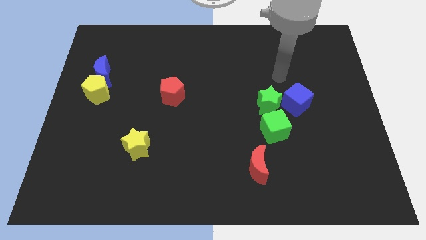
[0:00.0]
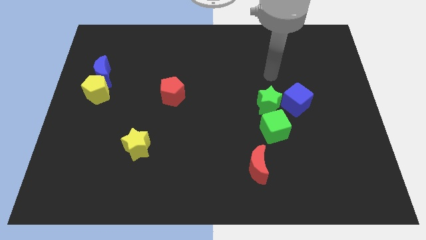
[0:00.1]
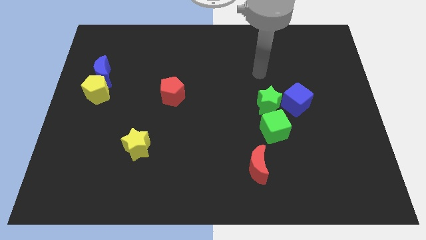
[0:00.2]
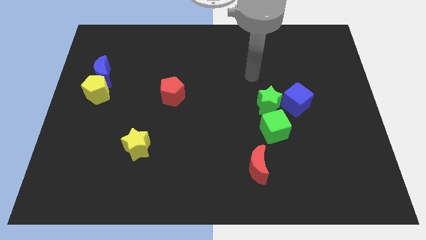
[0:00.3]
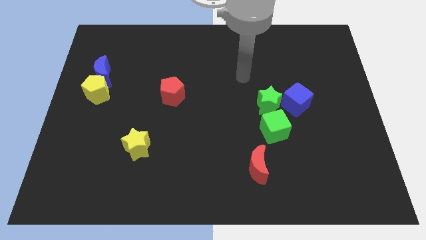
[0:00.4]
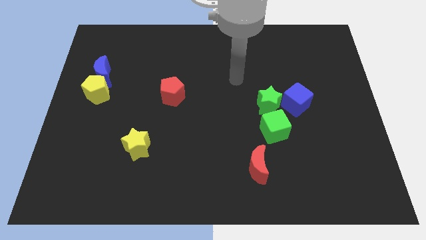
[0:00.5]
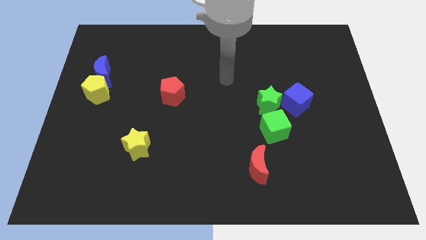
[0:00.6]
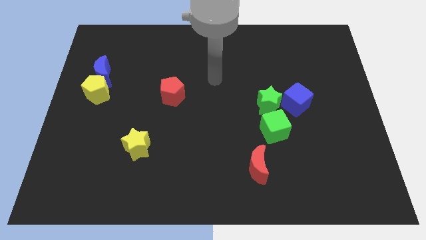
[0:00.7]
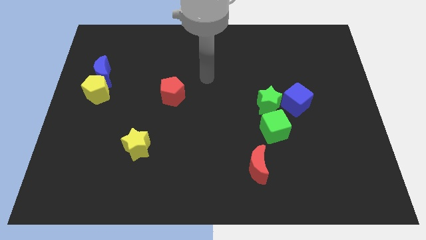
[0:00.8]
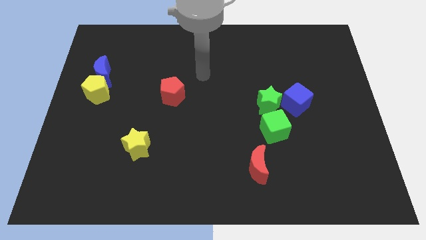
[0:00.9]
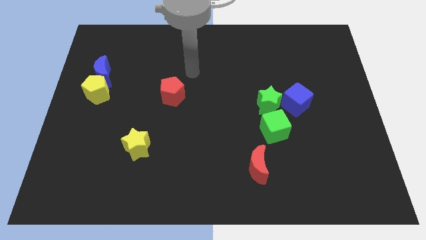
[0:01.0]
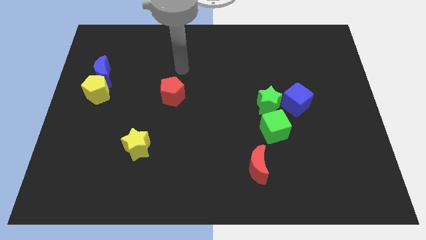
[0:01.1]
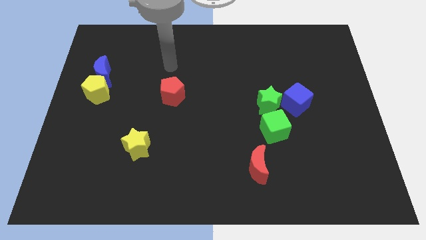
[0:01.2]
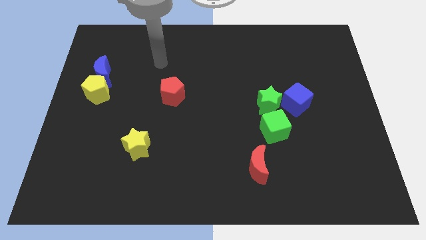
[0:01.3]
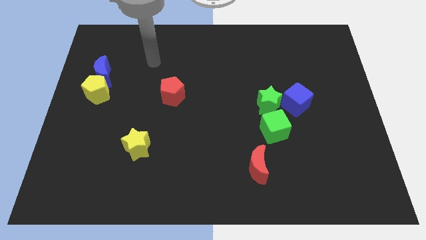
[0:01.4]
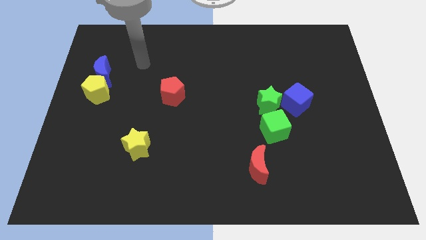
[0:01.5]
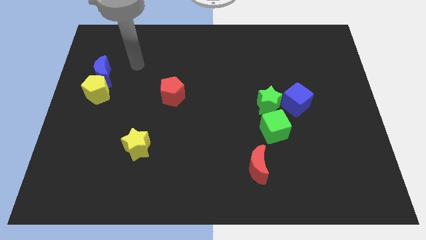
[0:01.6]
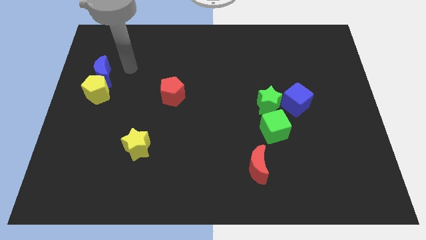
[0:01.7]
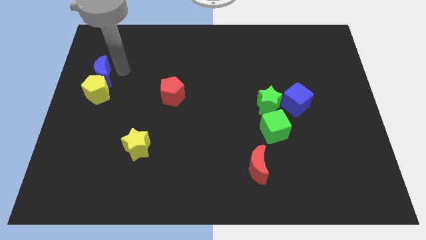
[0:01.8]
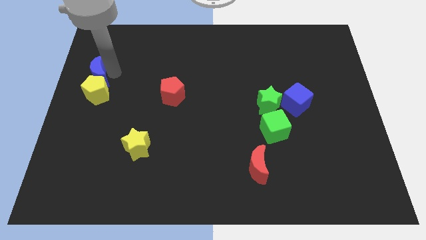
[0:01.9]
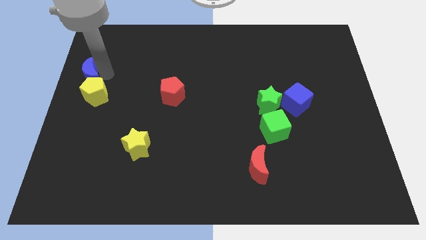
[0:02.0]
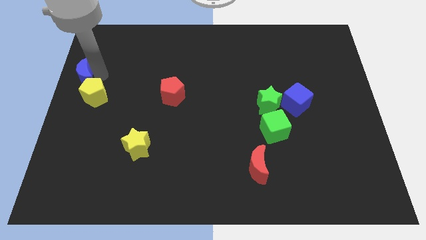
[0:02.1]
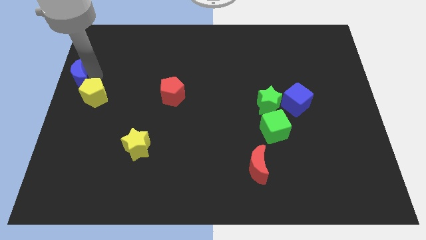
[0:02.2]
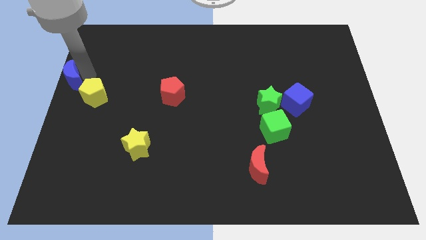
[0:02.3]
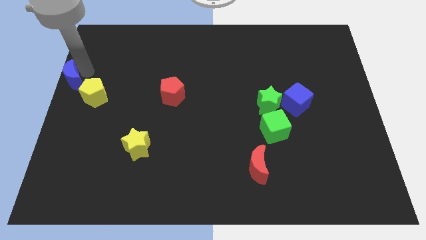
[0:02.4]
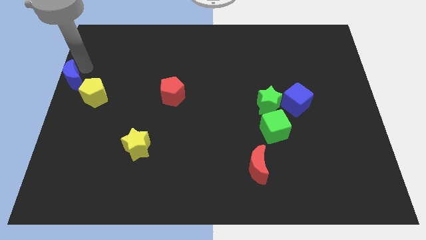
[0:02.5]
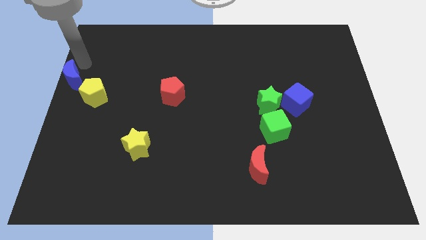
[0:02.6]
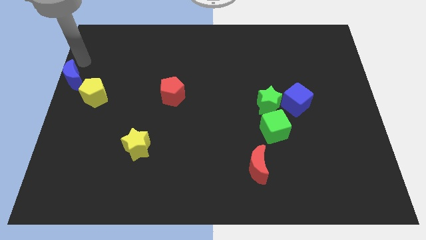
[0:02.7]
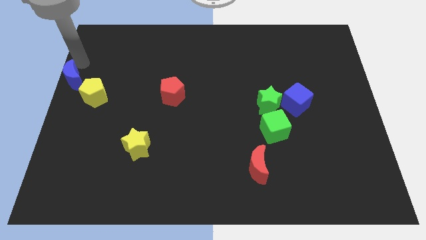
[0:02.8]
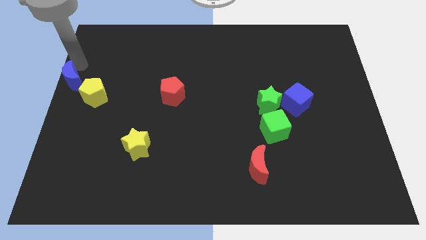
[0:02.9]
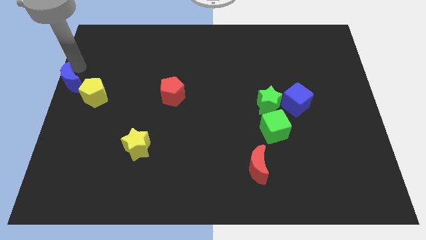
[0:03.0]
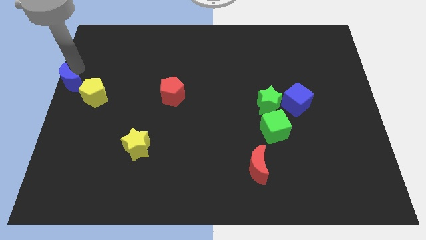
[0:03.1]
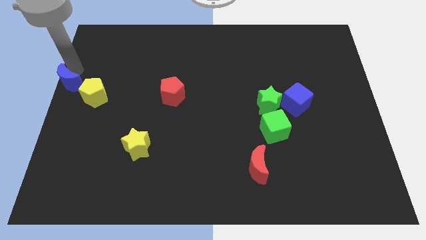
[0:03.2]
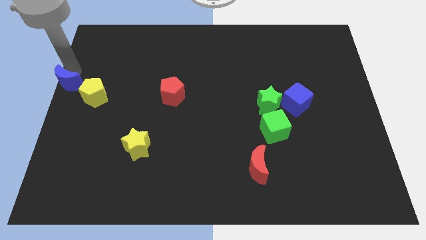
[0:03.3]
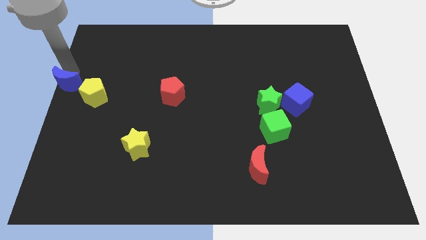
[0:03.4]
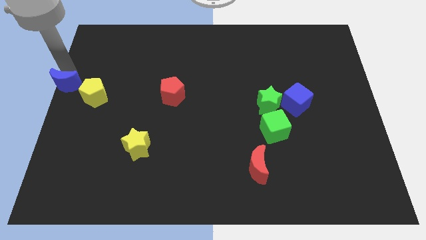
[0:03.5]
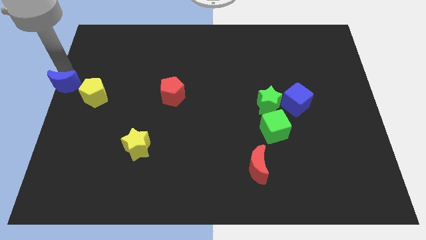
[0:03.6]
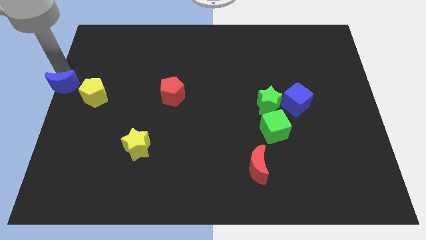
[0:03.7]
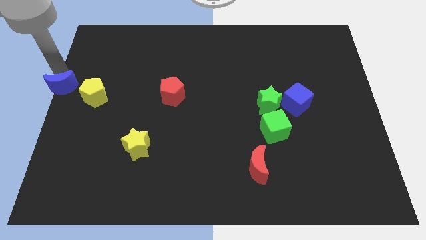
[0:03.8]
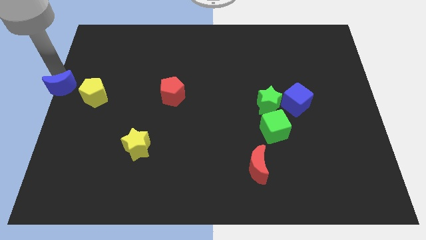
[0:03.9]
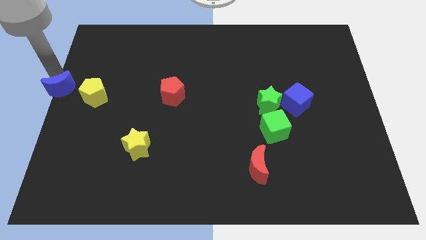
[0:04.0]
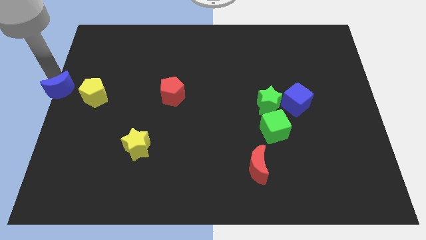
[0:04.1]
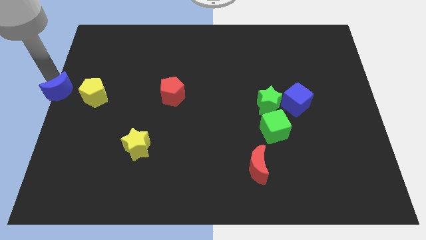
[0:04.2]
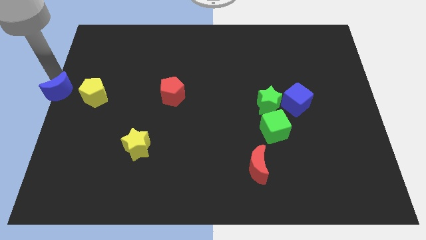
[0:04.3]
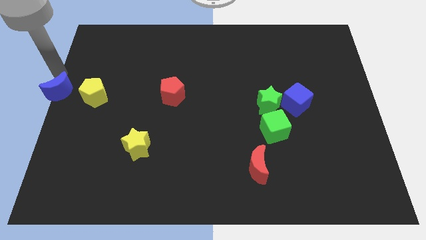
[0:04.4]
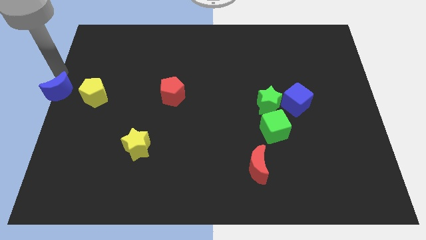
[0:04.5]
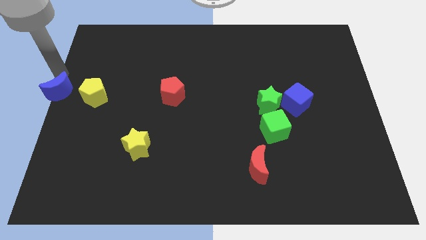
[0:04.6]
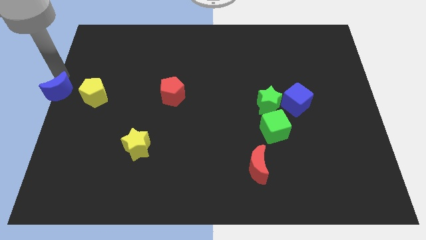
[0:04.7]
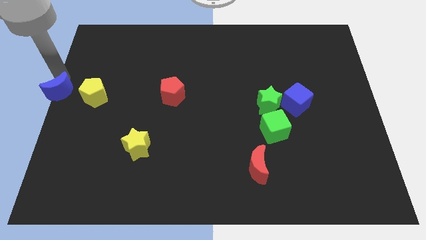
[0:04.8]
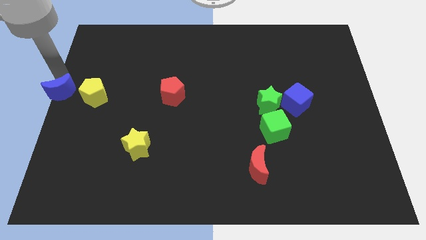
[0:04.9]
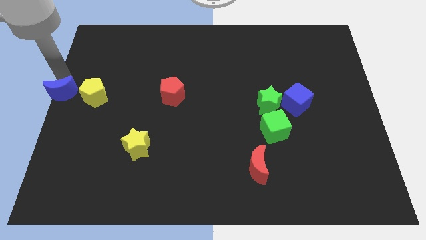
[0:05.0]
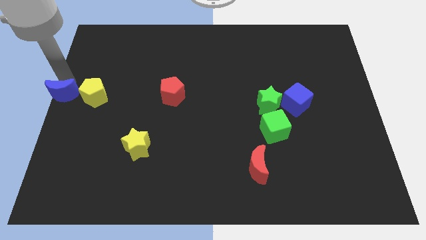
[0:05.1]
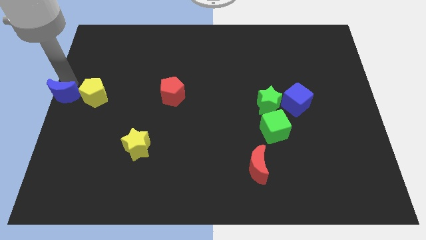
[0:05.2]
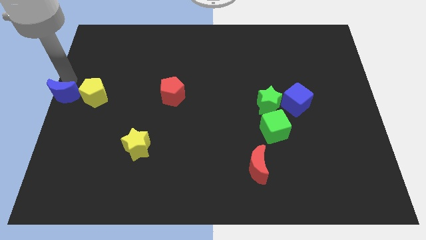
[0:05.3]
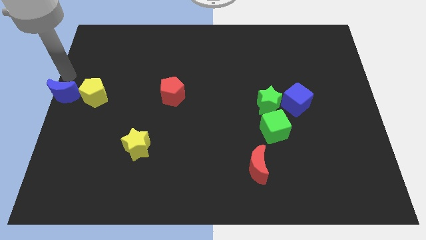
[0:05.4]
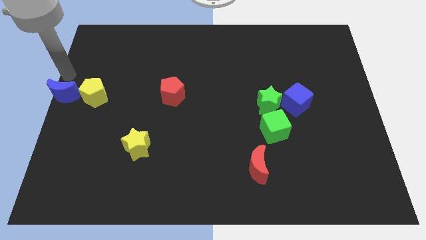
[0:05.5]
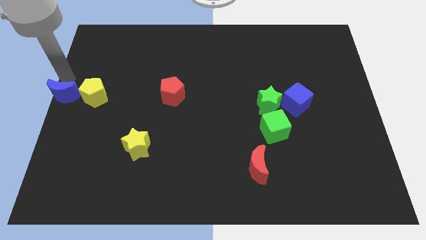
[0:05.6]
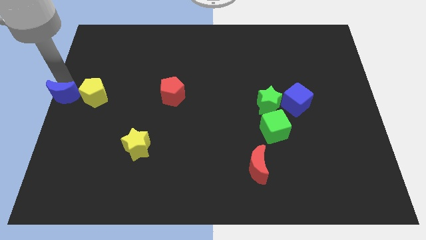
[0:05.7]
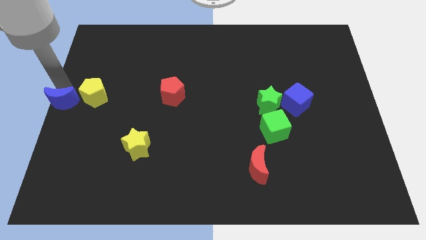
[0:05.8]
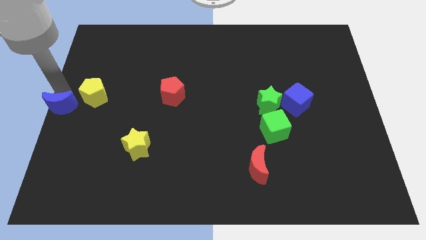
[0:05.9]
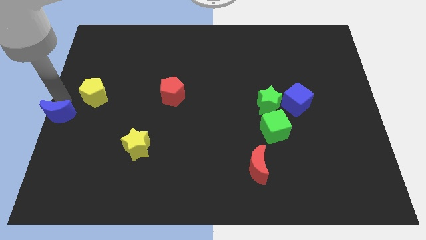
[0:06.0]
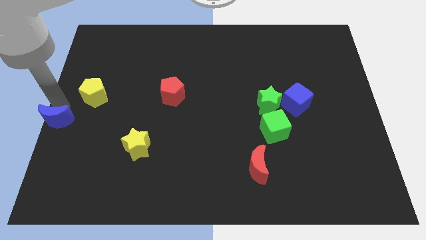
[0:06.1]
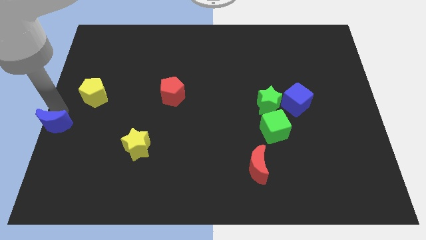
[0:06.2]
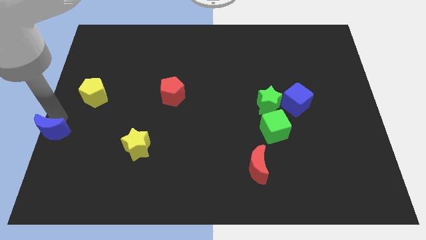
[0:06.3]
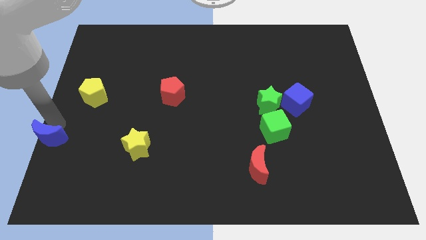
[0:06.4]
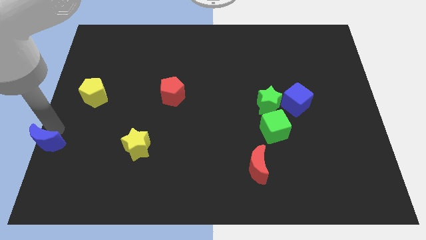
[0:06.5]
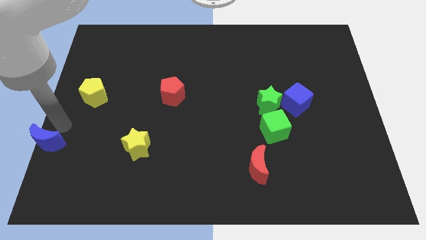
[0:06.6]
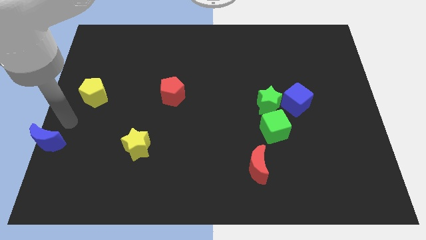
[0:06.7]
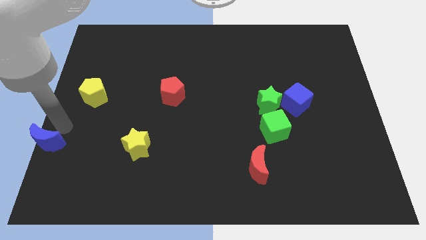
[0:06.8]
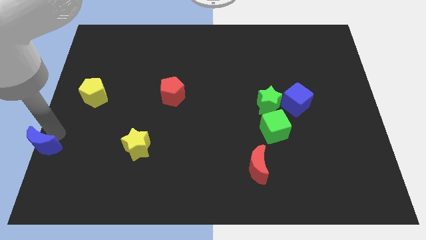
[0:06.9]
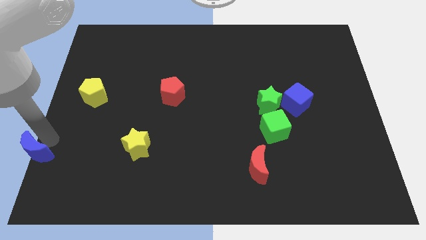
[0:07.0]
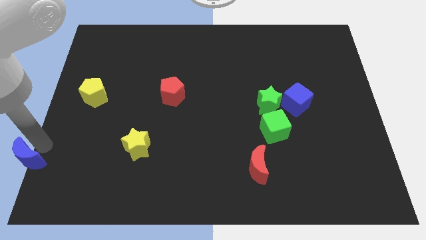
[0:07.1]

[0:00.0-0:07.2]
slide the blue moon to the bottom left
